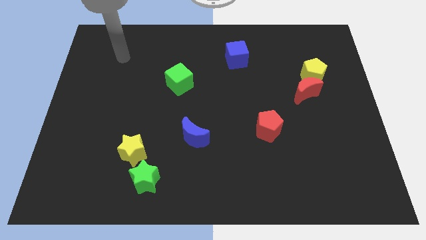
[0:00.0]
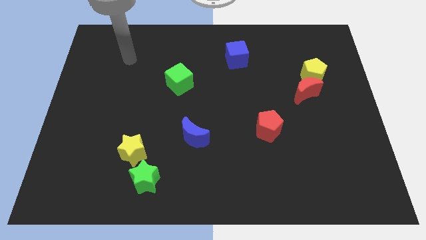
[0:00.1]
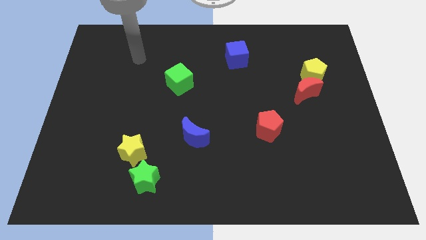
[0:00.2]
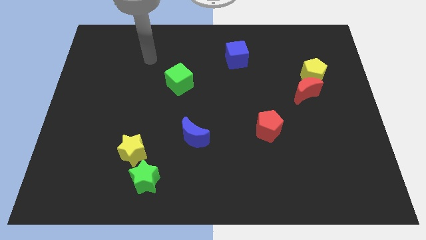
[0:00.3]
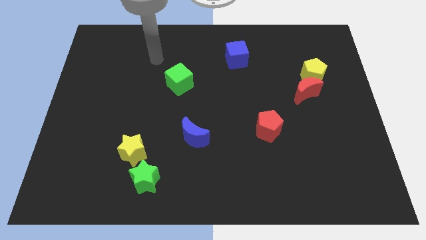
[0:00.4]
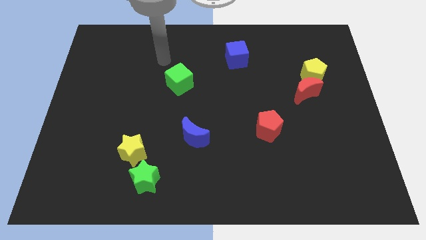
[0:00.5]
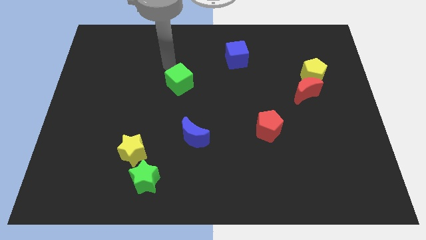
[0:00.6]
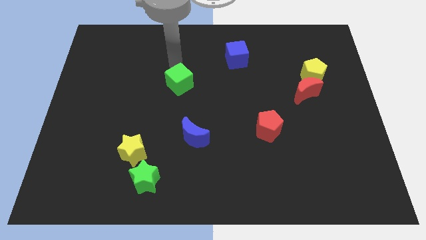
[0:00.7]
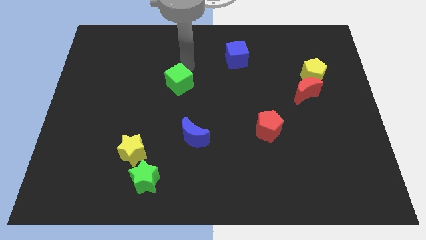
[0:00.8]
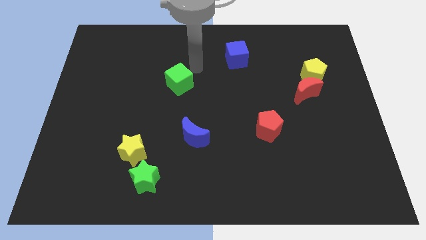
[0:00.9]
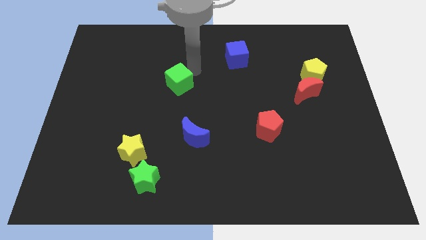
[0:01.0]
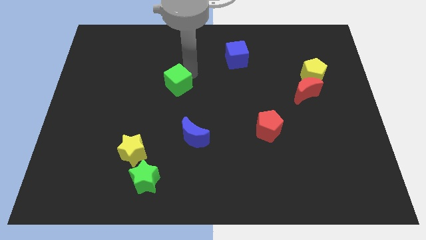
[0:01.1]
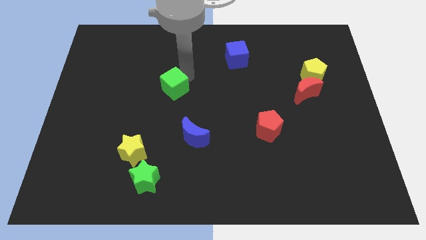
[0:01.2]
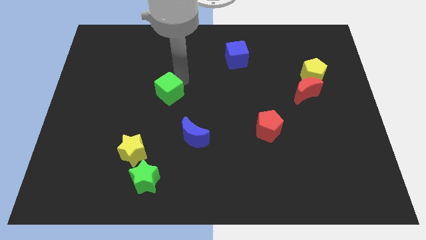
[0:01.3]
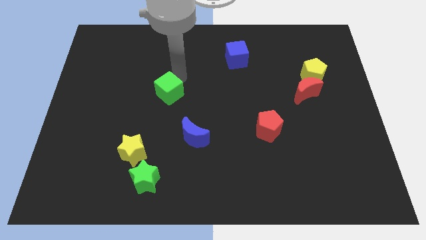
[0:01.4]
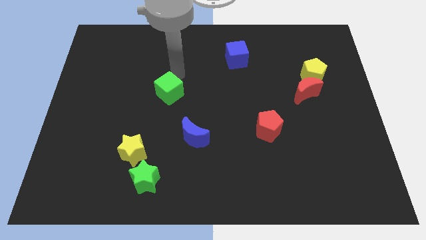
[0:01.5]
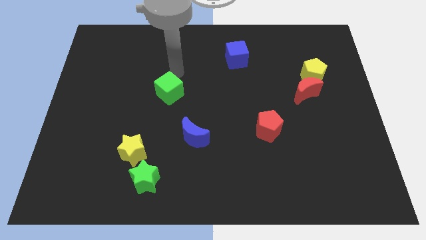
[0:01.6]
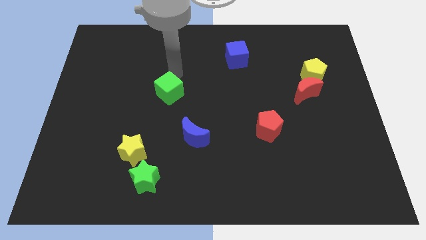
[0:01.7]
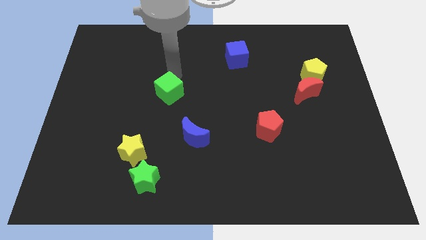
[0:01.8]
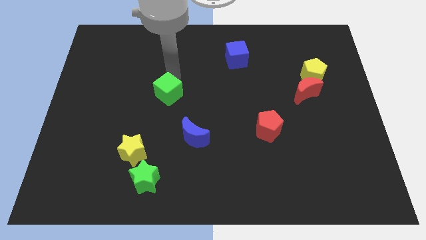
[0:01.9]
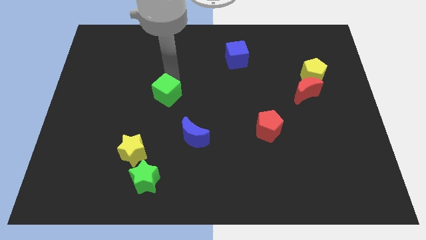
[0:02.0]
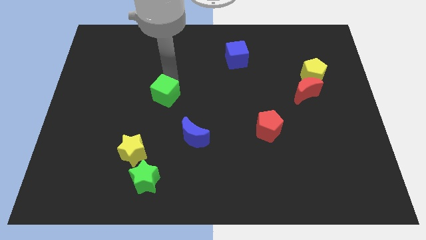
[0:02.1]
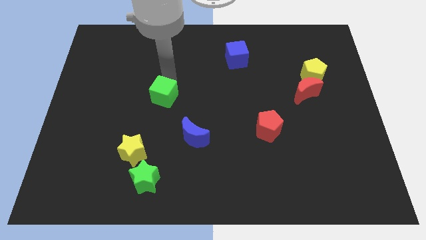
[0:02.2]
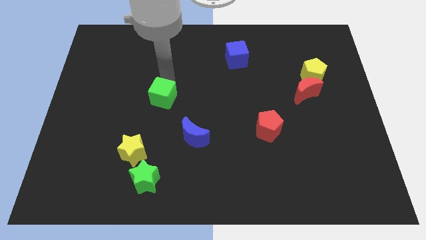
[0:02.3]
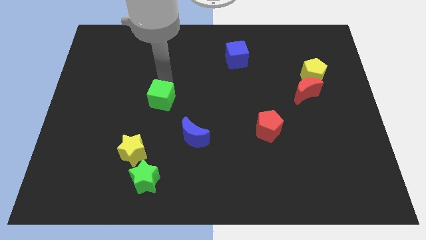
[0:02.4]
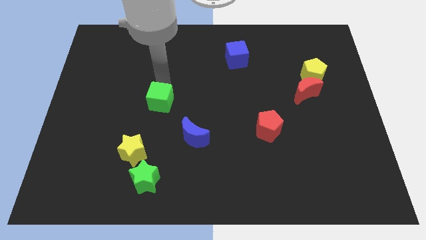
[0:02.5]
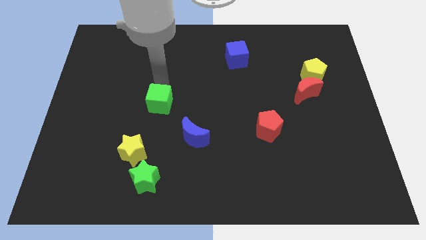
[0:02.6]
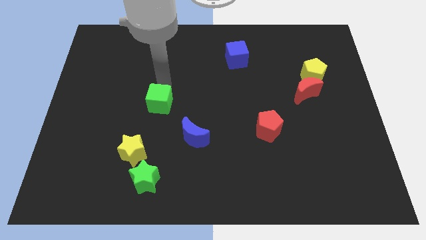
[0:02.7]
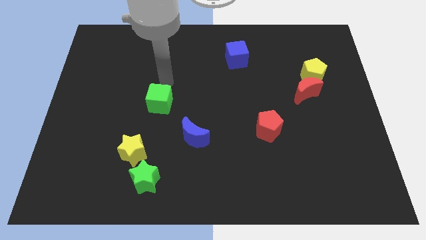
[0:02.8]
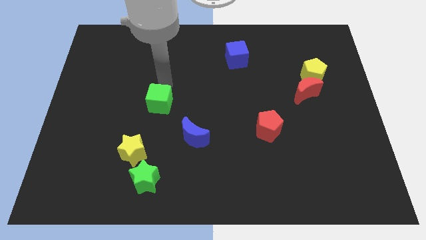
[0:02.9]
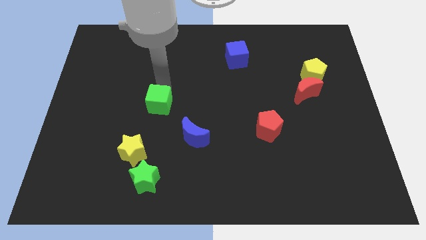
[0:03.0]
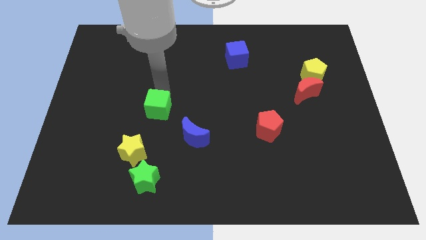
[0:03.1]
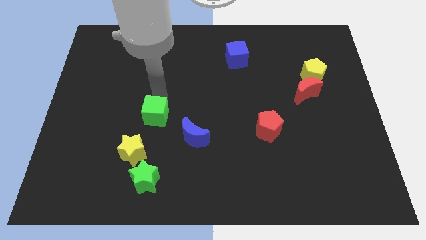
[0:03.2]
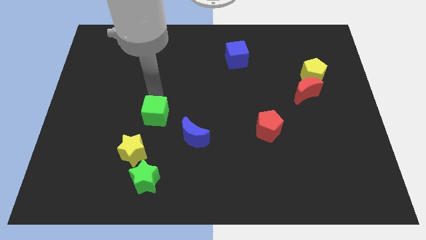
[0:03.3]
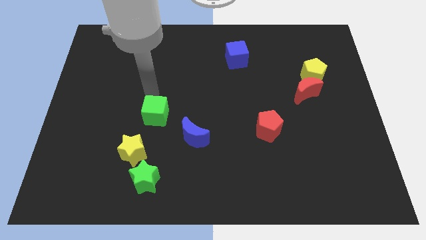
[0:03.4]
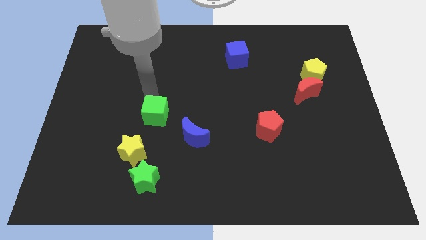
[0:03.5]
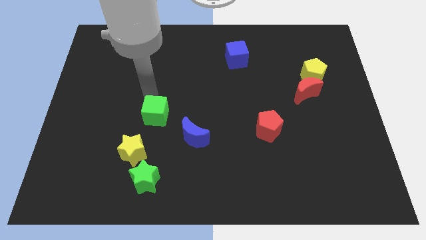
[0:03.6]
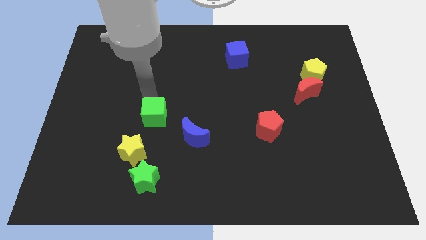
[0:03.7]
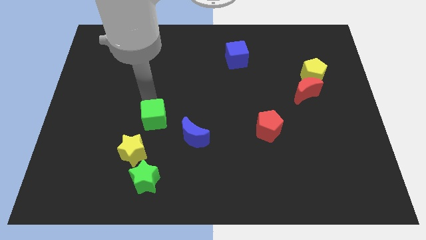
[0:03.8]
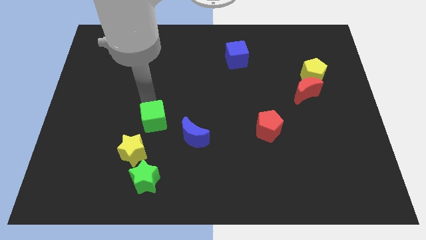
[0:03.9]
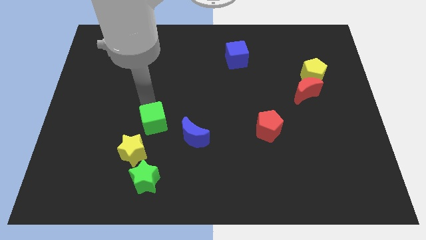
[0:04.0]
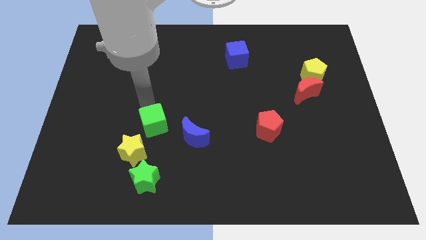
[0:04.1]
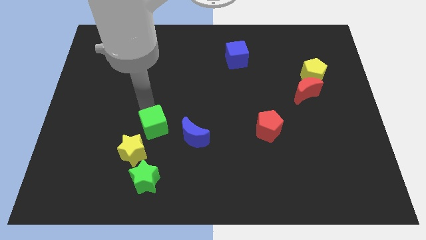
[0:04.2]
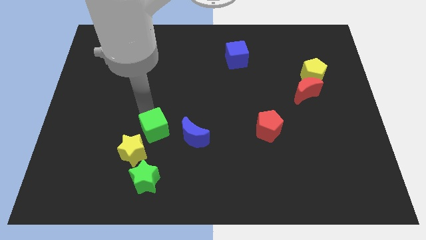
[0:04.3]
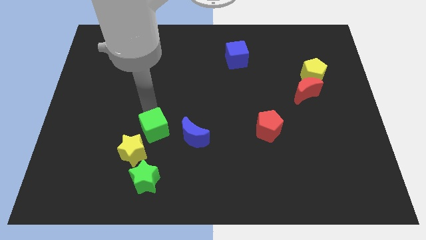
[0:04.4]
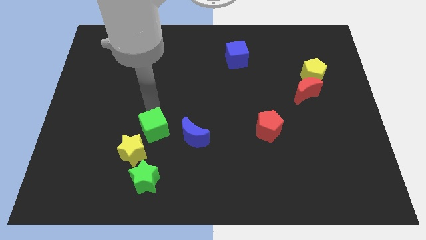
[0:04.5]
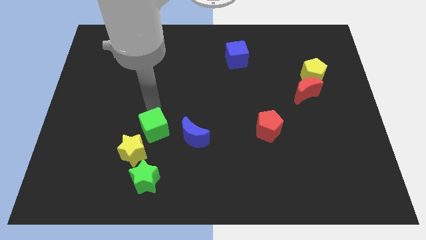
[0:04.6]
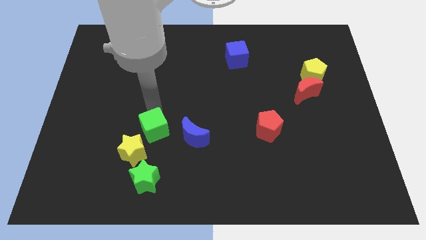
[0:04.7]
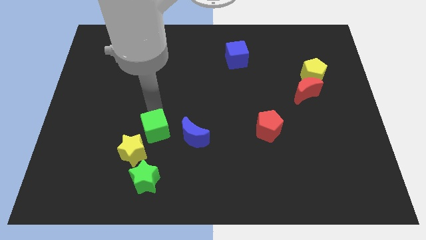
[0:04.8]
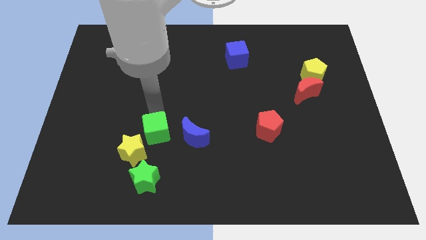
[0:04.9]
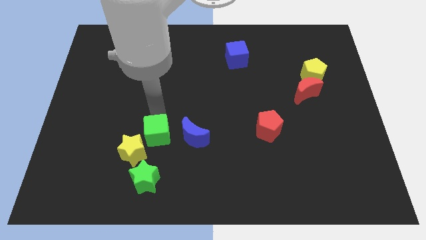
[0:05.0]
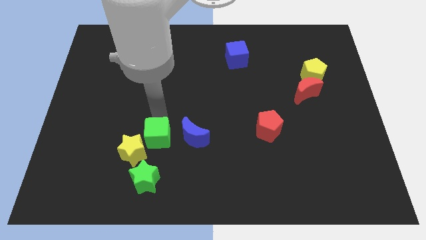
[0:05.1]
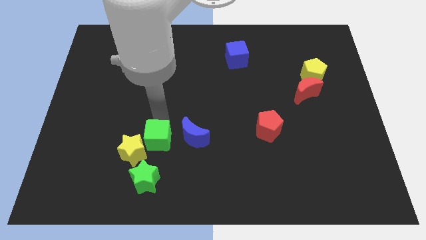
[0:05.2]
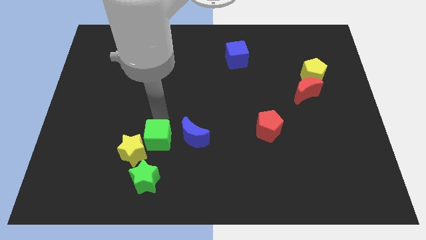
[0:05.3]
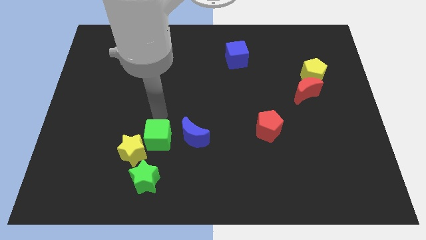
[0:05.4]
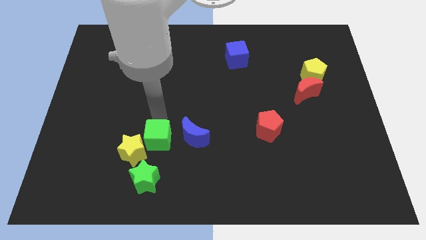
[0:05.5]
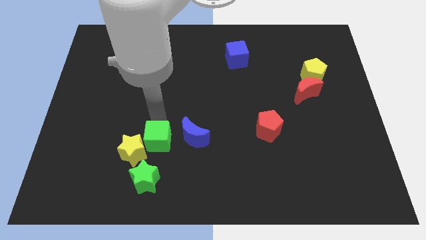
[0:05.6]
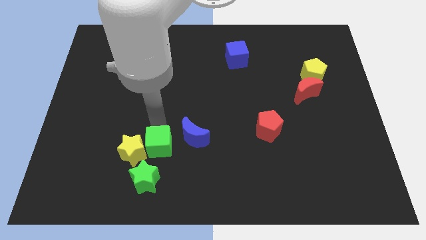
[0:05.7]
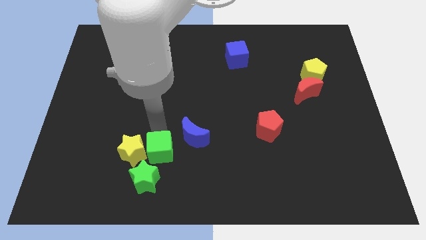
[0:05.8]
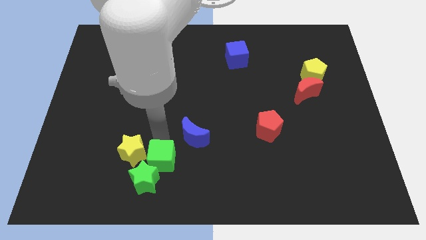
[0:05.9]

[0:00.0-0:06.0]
slide the green cube to the green star

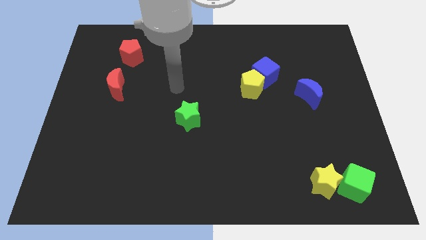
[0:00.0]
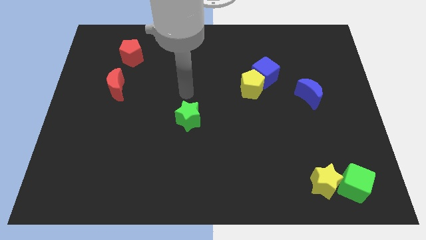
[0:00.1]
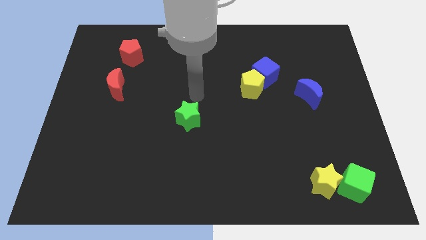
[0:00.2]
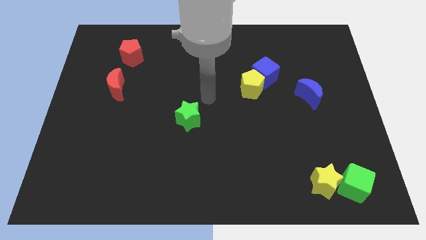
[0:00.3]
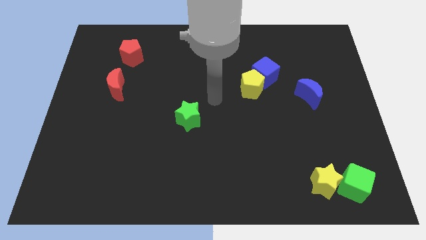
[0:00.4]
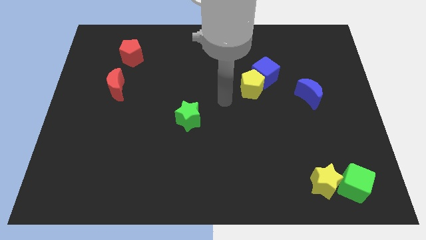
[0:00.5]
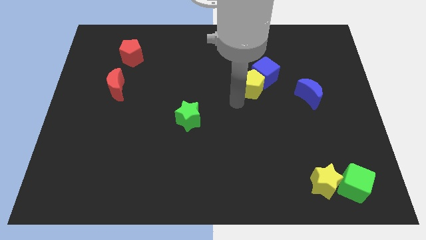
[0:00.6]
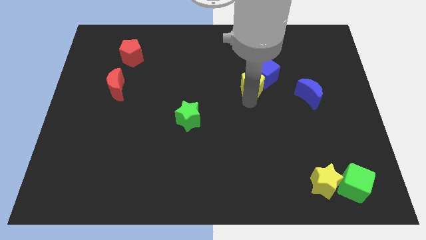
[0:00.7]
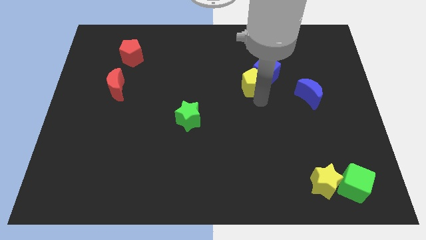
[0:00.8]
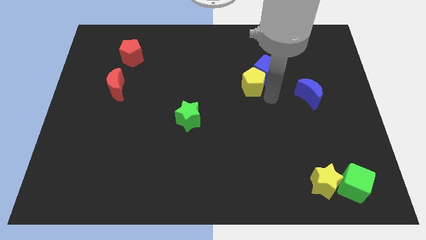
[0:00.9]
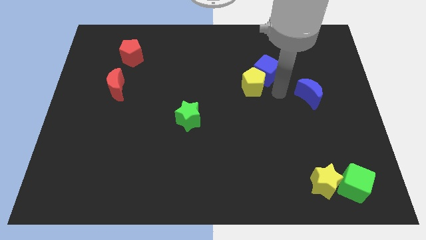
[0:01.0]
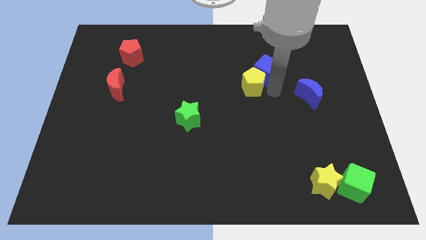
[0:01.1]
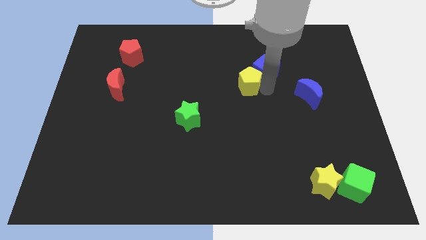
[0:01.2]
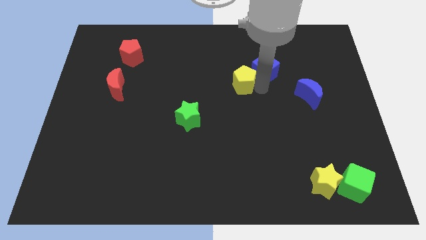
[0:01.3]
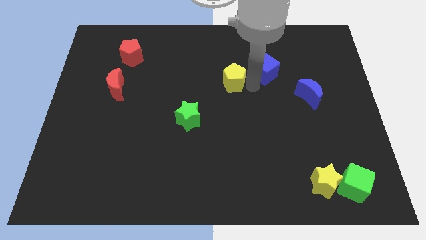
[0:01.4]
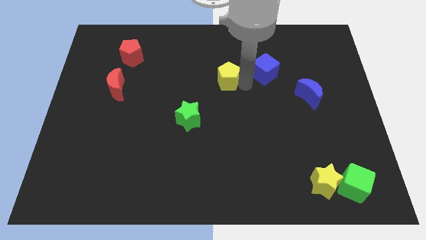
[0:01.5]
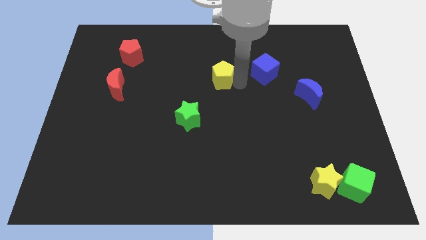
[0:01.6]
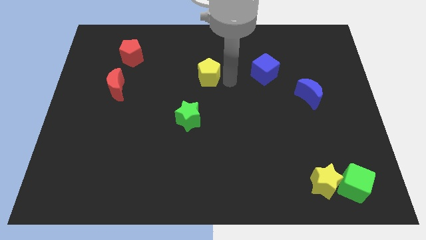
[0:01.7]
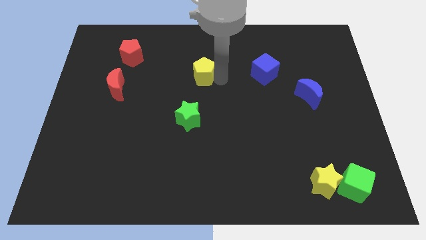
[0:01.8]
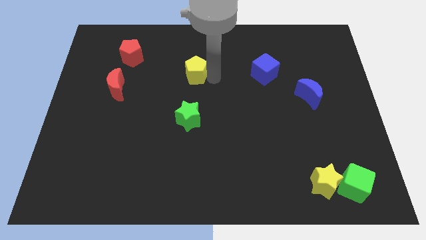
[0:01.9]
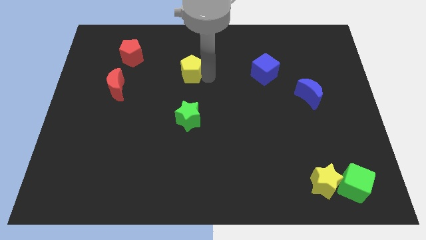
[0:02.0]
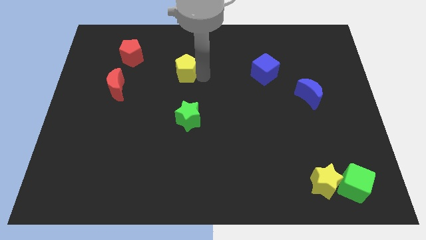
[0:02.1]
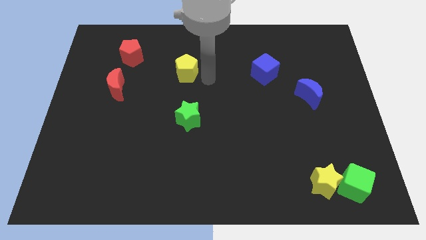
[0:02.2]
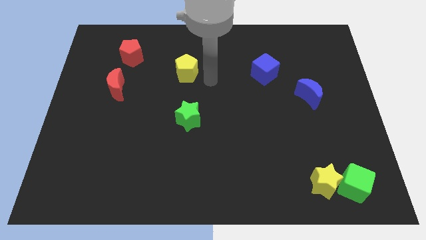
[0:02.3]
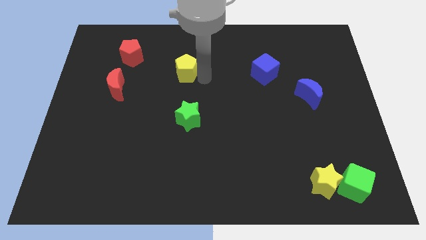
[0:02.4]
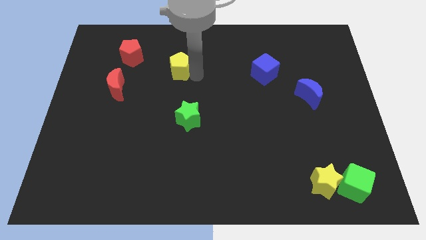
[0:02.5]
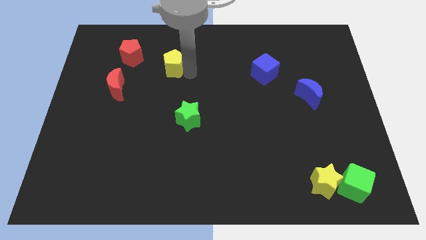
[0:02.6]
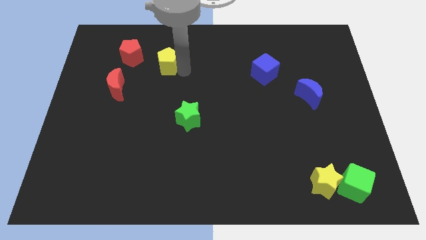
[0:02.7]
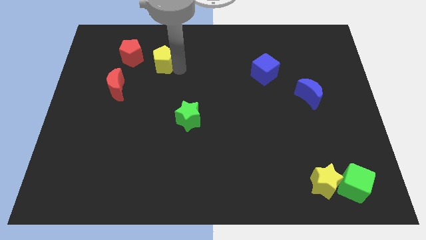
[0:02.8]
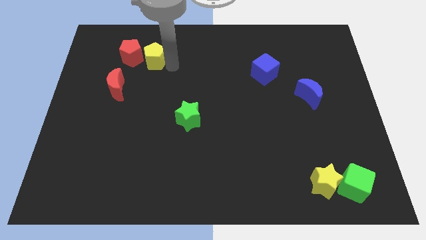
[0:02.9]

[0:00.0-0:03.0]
slide the yellow pentagon close to the red pentagon
